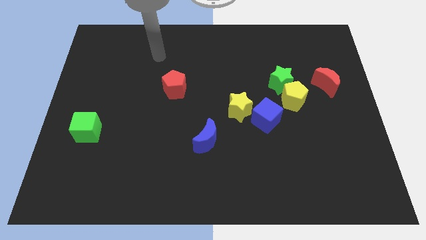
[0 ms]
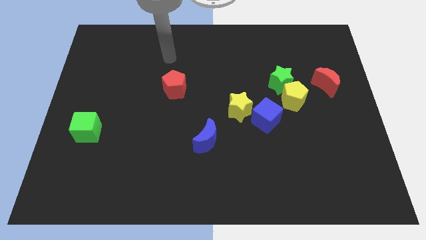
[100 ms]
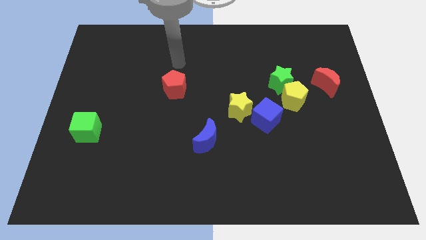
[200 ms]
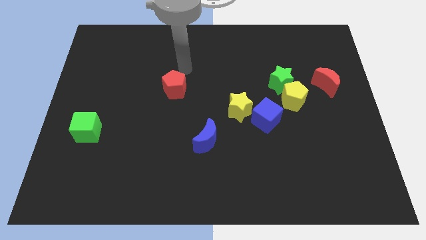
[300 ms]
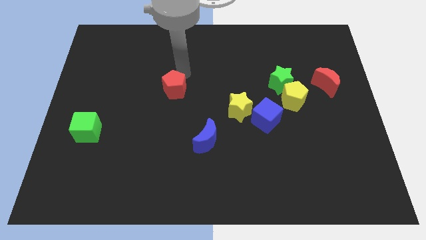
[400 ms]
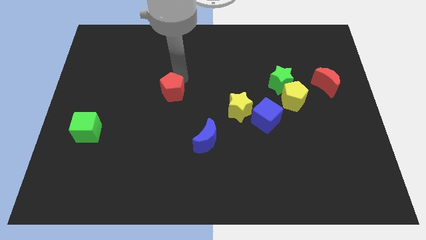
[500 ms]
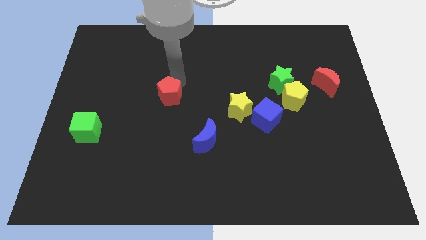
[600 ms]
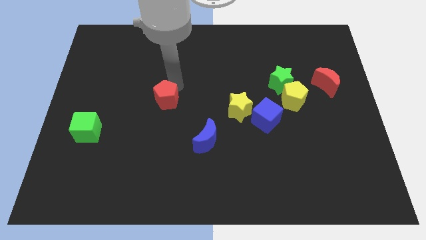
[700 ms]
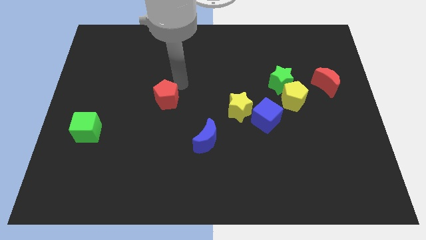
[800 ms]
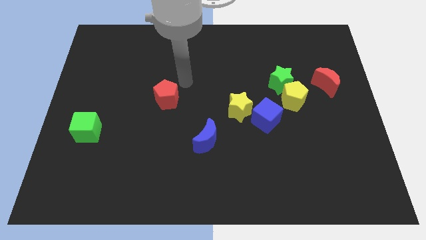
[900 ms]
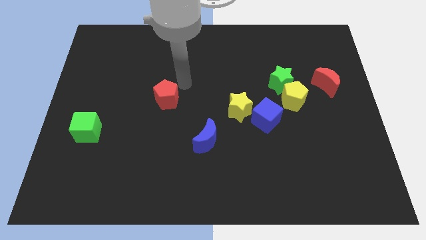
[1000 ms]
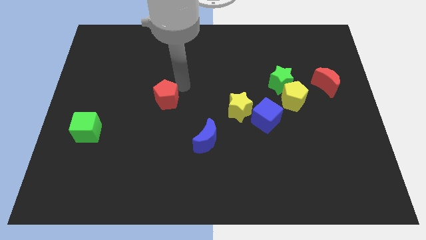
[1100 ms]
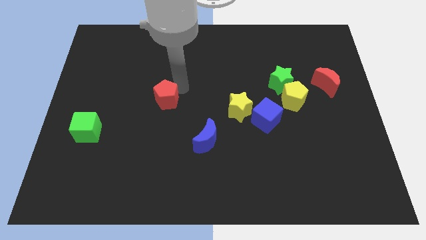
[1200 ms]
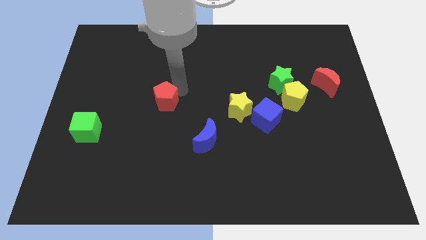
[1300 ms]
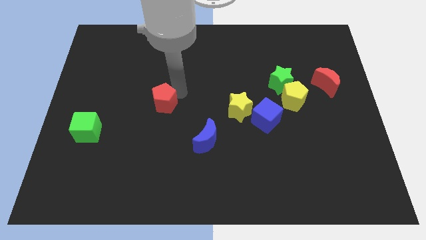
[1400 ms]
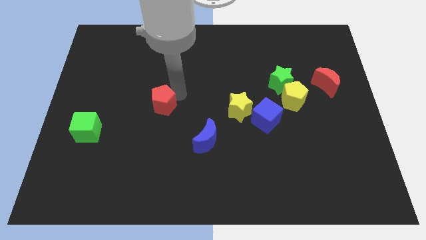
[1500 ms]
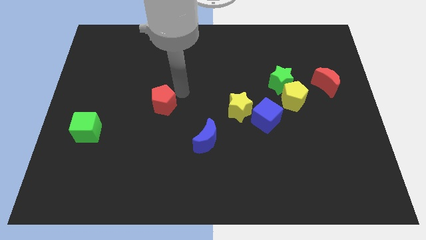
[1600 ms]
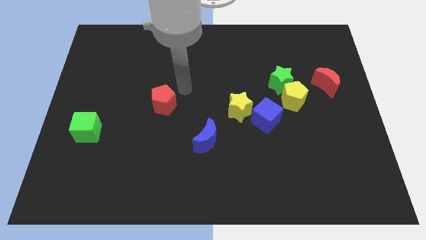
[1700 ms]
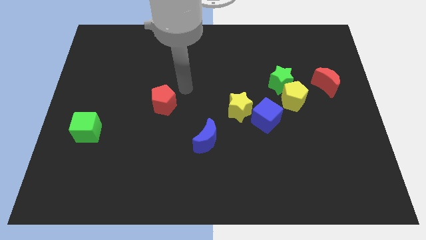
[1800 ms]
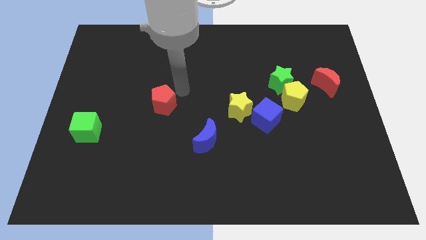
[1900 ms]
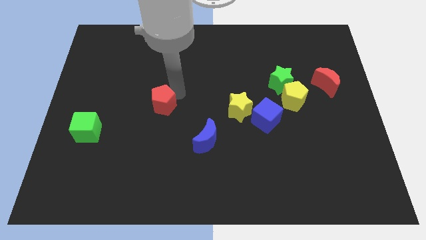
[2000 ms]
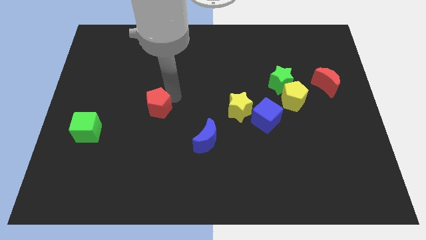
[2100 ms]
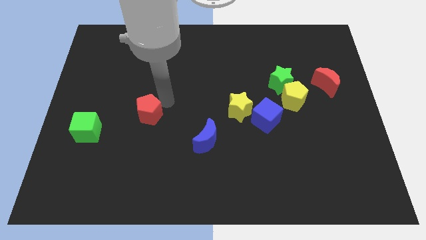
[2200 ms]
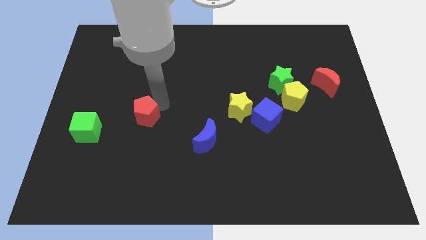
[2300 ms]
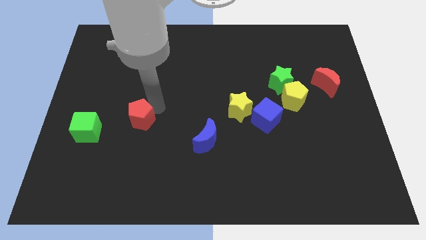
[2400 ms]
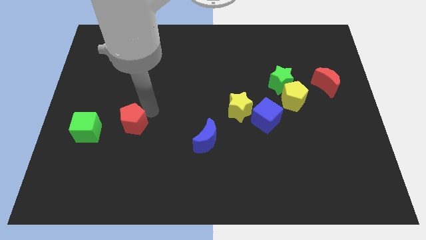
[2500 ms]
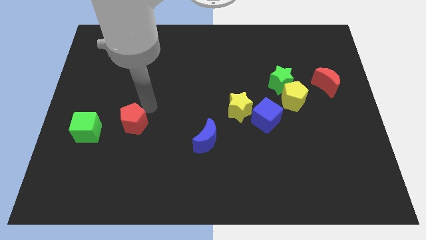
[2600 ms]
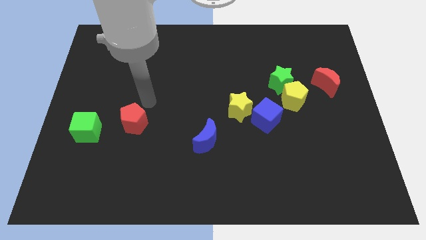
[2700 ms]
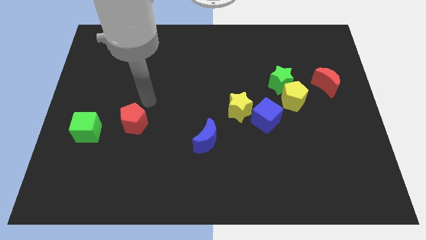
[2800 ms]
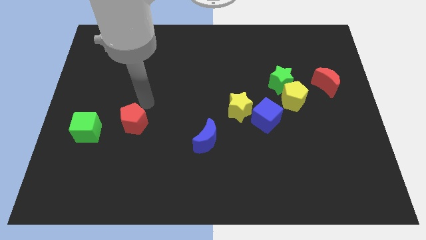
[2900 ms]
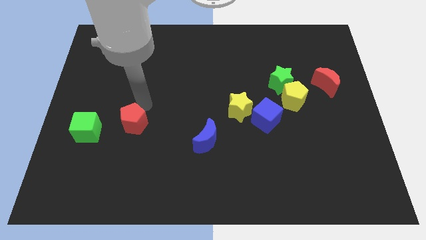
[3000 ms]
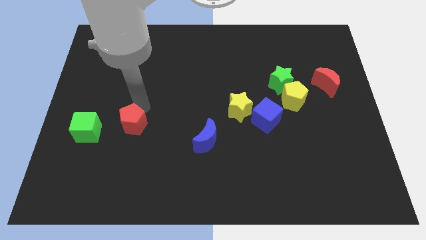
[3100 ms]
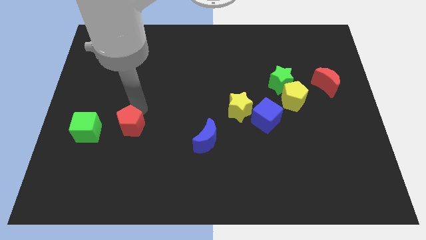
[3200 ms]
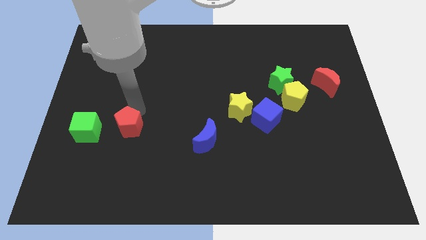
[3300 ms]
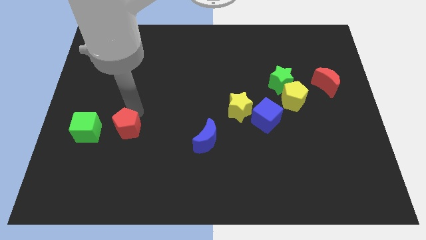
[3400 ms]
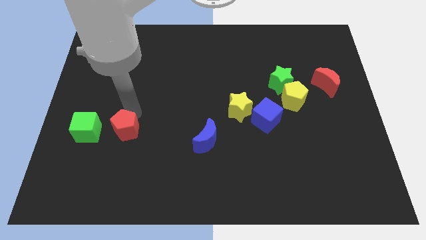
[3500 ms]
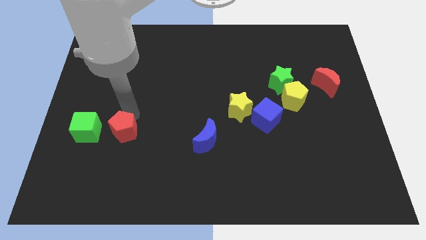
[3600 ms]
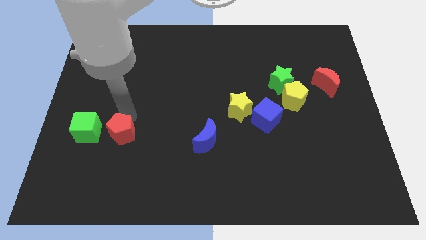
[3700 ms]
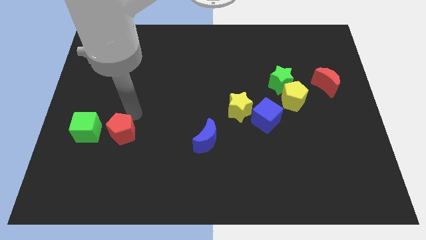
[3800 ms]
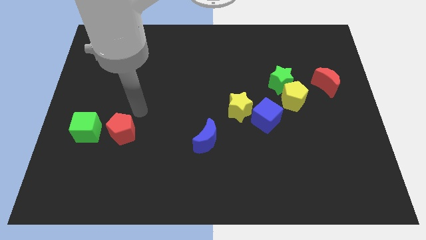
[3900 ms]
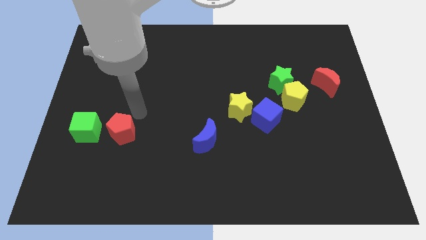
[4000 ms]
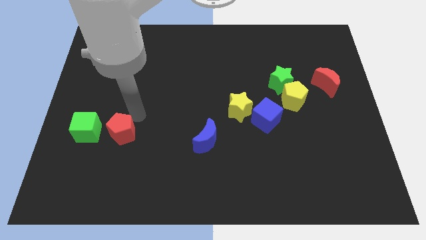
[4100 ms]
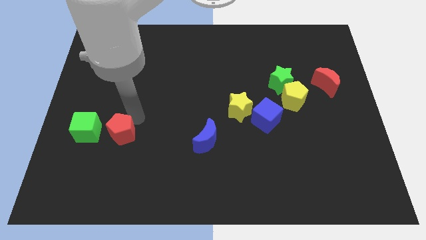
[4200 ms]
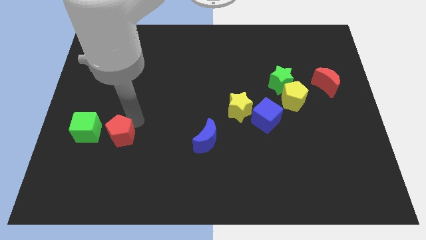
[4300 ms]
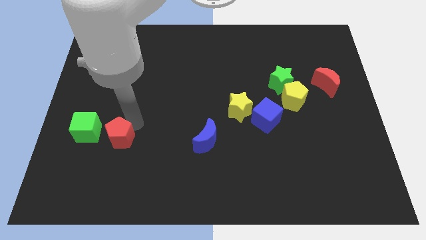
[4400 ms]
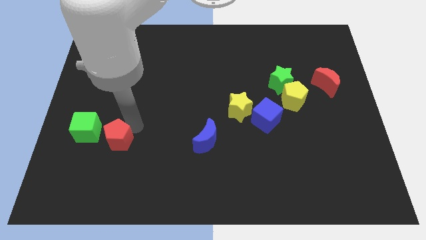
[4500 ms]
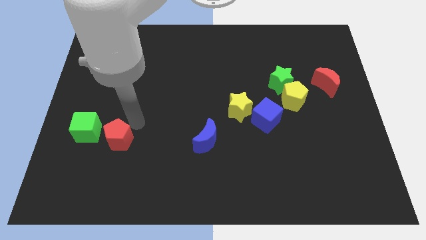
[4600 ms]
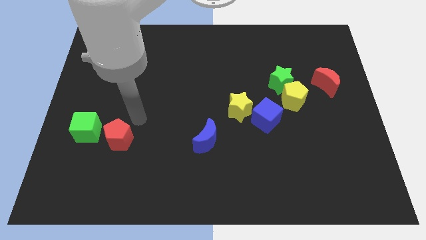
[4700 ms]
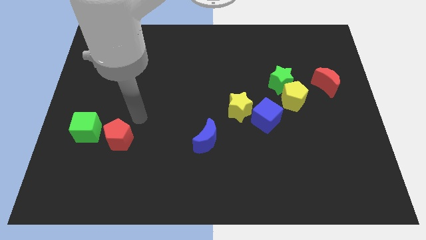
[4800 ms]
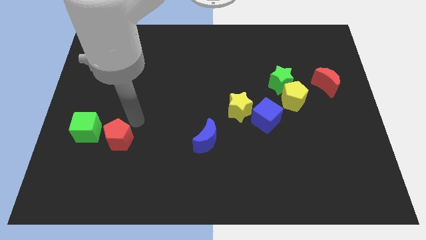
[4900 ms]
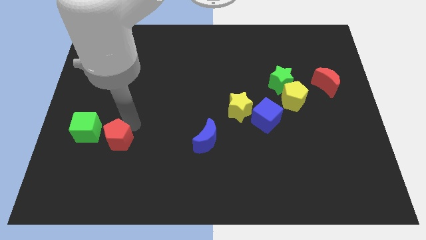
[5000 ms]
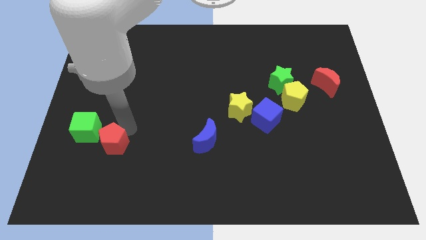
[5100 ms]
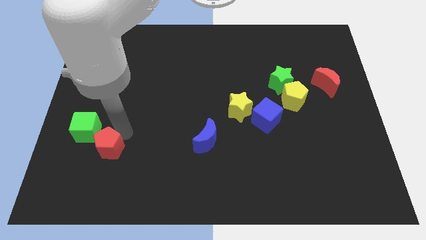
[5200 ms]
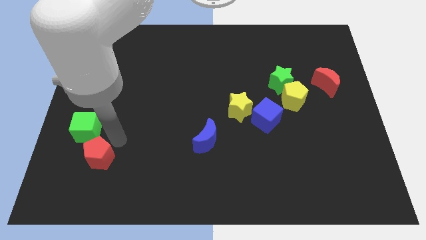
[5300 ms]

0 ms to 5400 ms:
put the red pentagon below the green cube

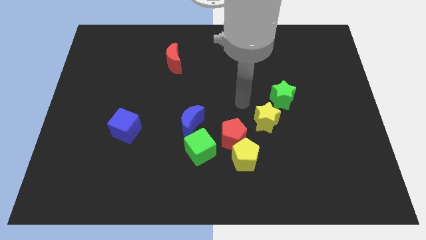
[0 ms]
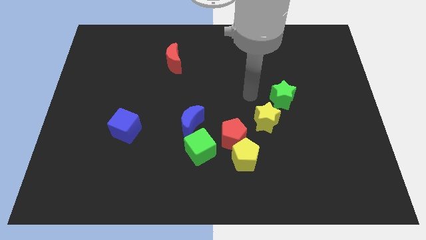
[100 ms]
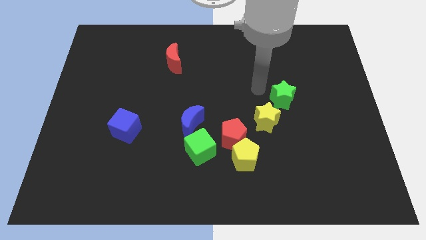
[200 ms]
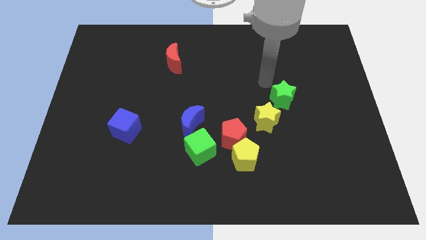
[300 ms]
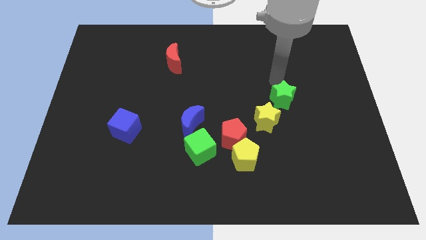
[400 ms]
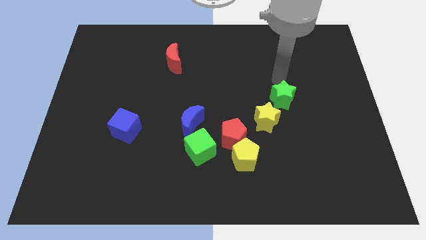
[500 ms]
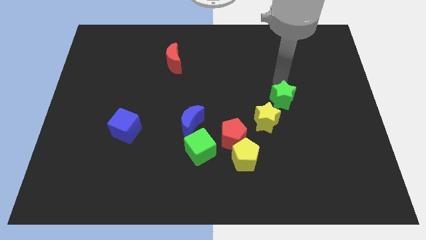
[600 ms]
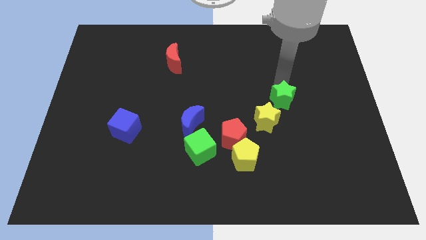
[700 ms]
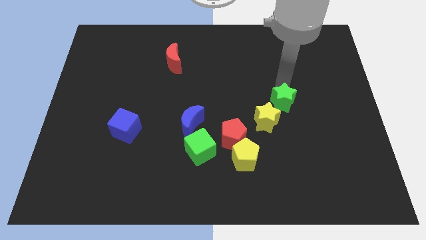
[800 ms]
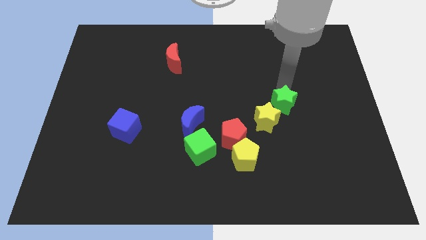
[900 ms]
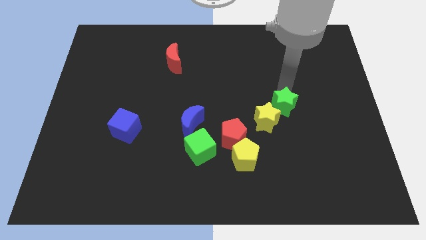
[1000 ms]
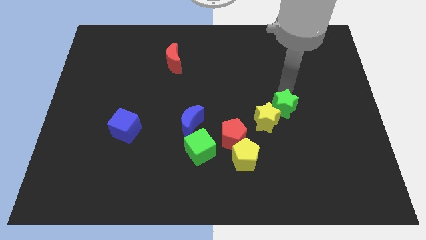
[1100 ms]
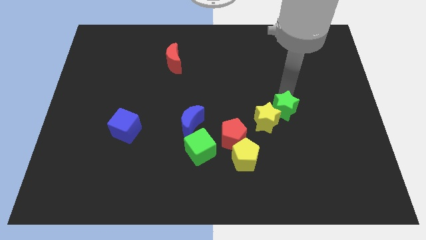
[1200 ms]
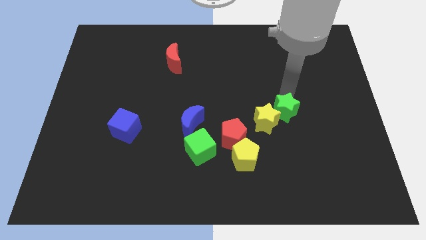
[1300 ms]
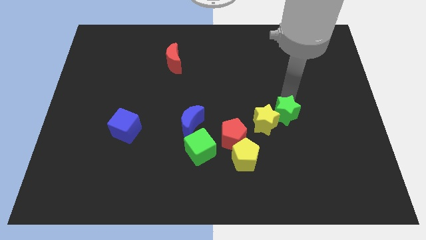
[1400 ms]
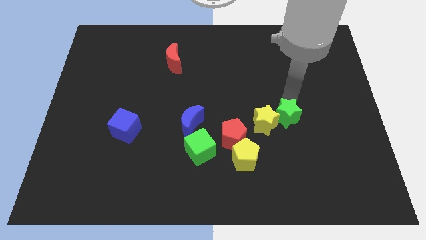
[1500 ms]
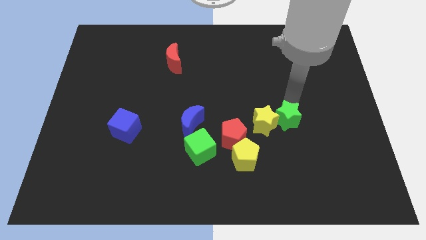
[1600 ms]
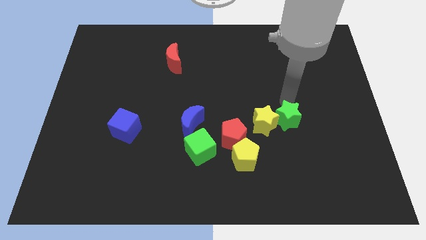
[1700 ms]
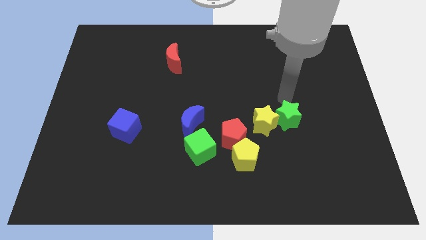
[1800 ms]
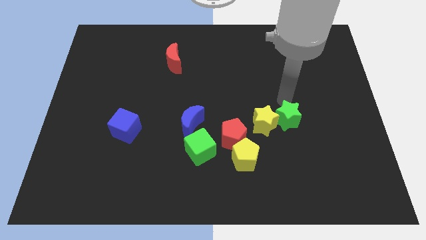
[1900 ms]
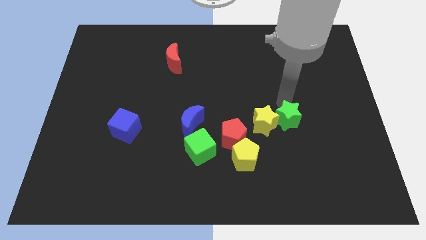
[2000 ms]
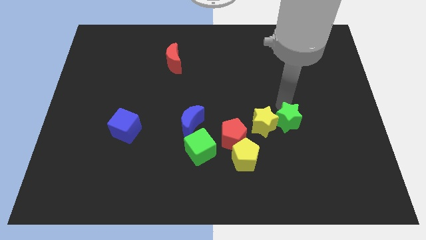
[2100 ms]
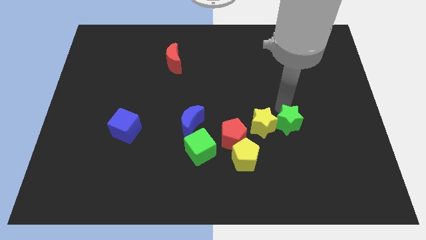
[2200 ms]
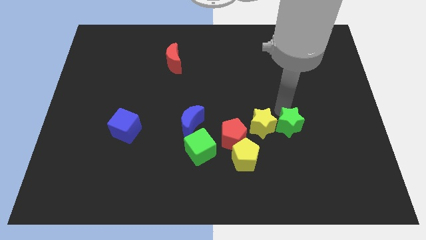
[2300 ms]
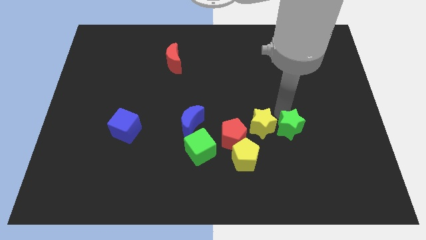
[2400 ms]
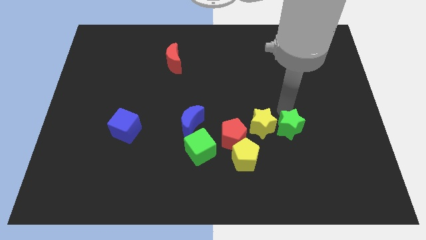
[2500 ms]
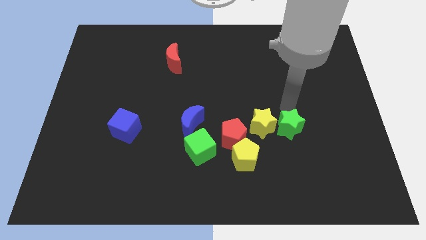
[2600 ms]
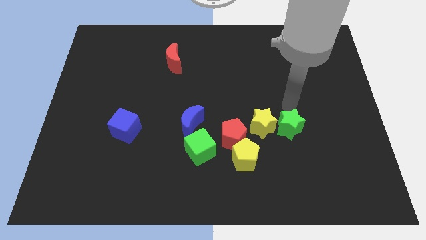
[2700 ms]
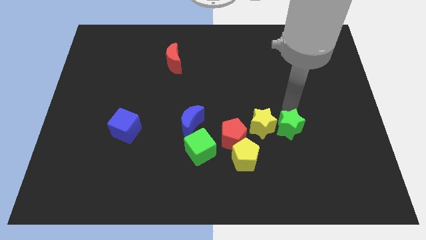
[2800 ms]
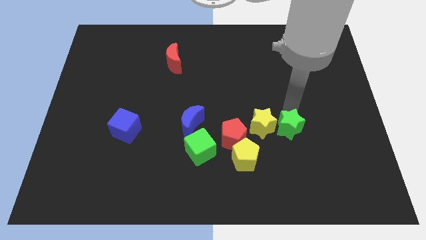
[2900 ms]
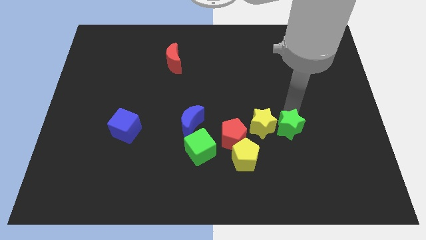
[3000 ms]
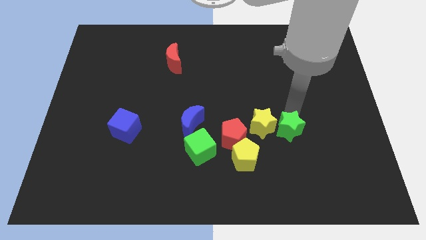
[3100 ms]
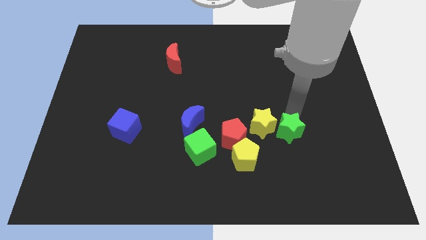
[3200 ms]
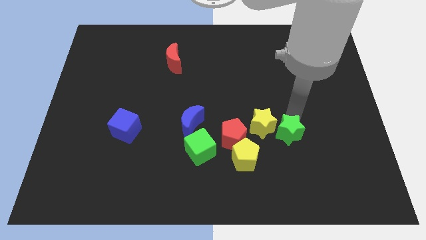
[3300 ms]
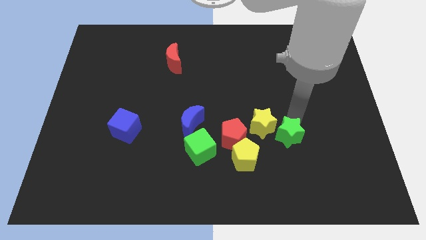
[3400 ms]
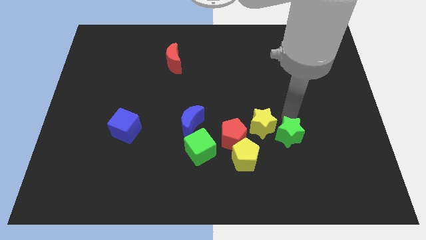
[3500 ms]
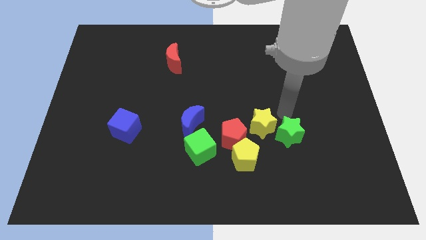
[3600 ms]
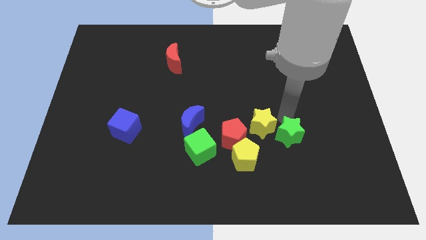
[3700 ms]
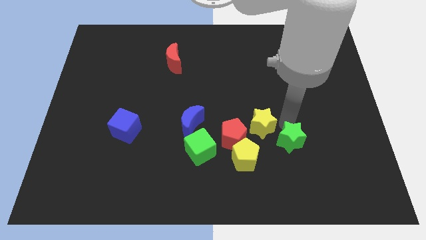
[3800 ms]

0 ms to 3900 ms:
move the green star to the right of the yellow pentagon
